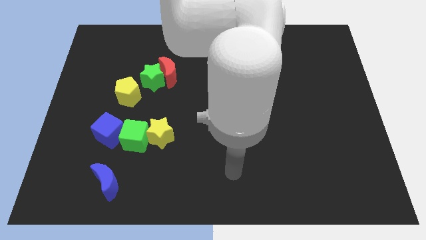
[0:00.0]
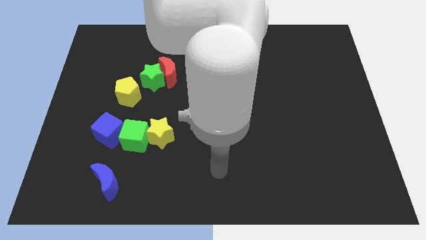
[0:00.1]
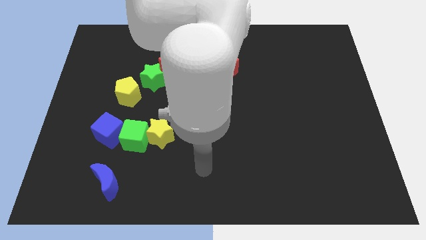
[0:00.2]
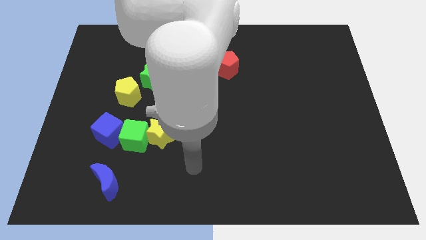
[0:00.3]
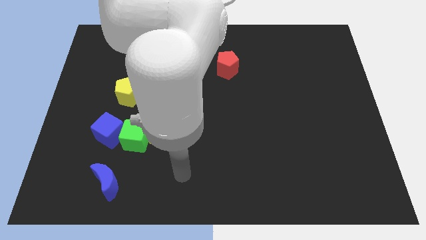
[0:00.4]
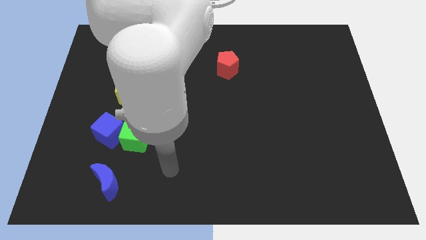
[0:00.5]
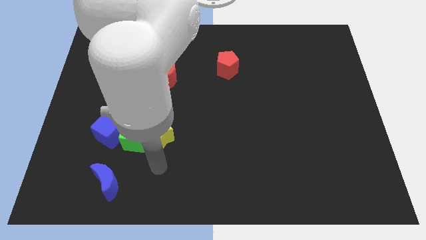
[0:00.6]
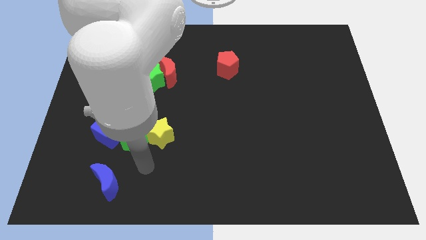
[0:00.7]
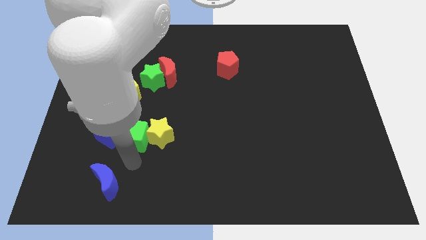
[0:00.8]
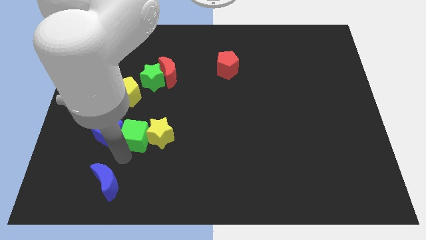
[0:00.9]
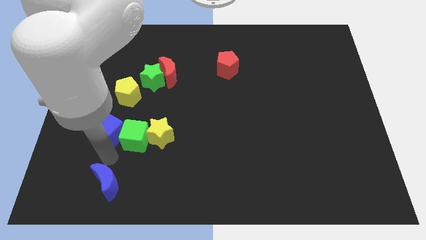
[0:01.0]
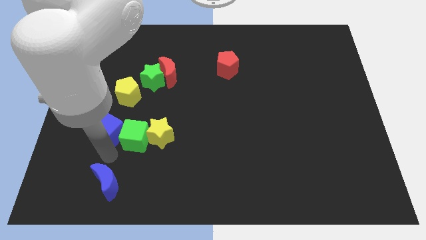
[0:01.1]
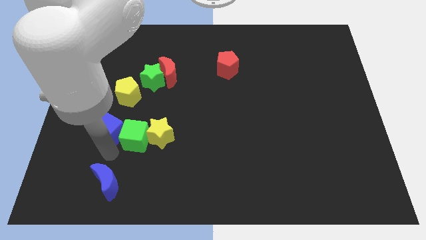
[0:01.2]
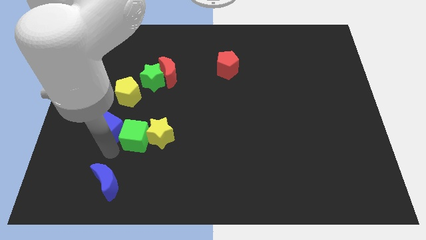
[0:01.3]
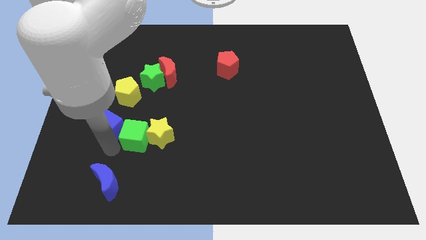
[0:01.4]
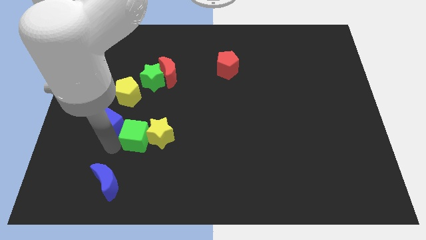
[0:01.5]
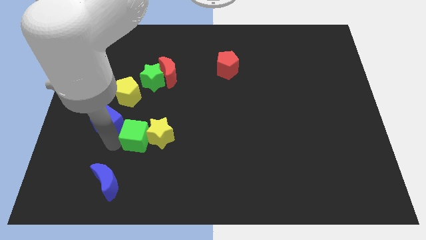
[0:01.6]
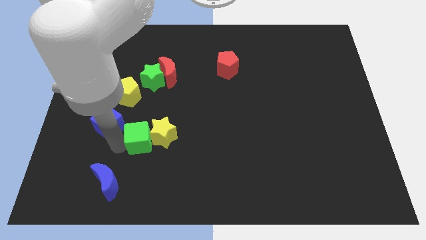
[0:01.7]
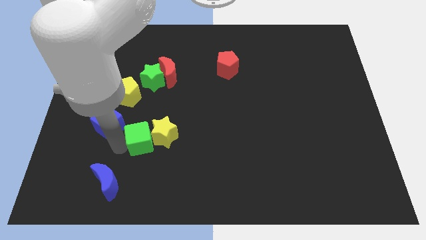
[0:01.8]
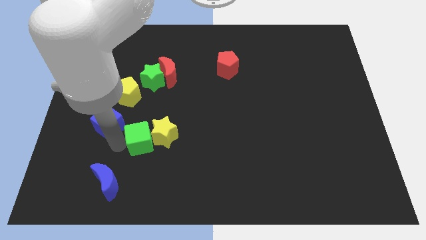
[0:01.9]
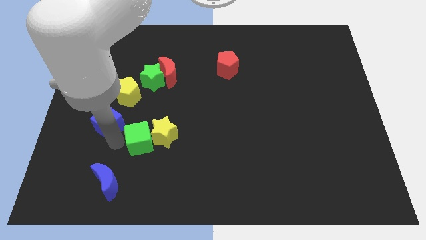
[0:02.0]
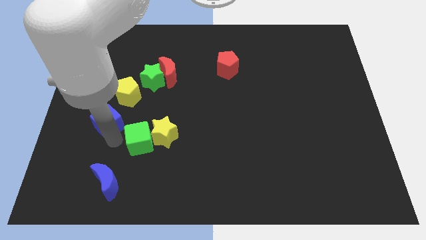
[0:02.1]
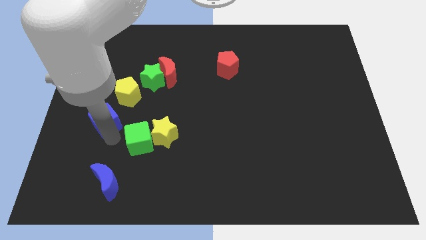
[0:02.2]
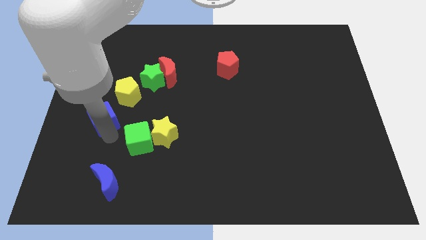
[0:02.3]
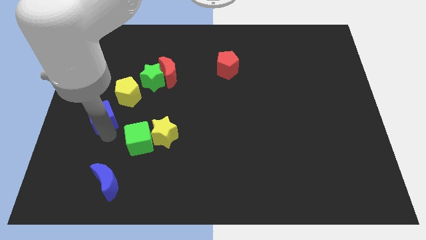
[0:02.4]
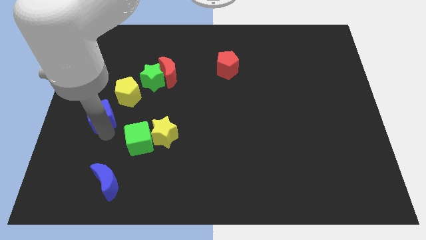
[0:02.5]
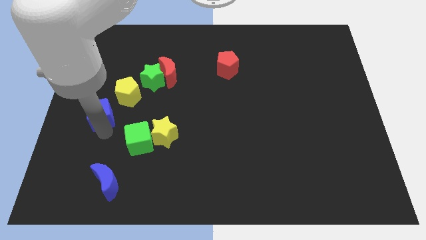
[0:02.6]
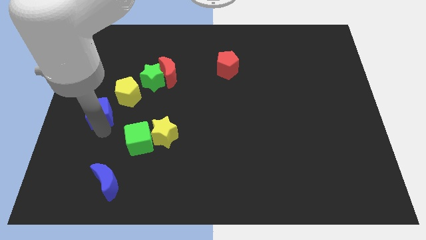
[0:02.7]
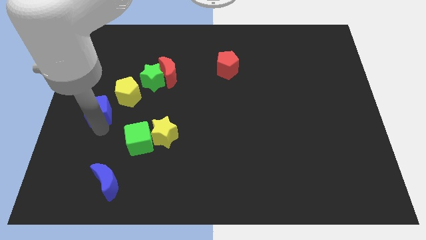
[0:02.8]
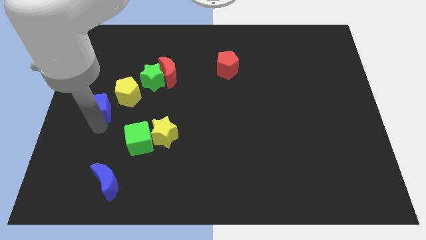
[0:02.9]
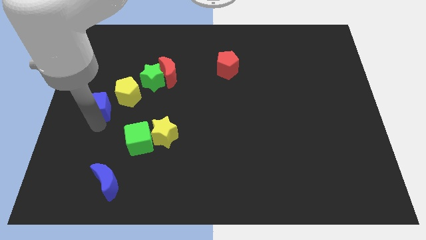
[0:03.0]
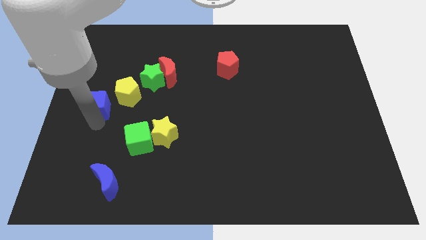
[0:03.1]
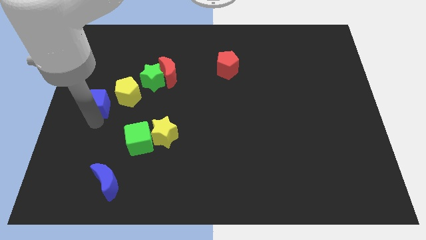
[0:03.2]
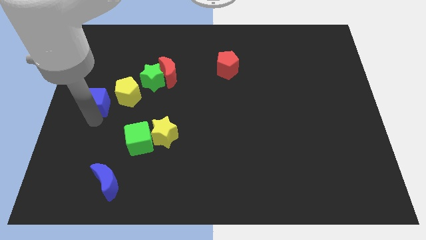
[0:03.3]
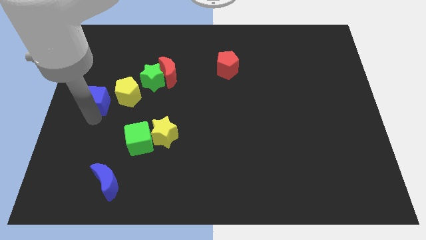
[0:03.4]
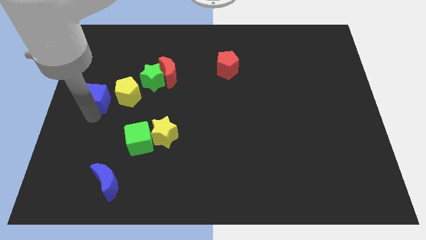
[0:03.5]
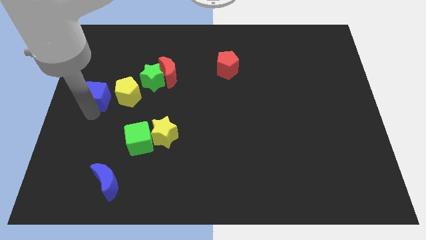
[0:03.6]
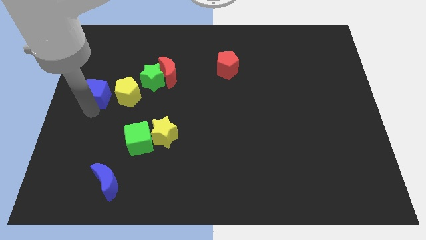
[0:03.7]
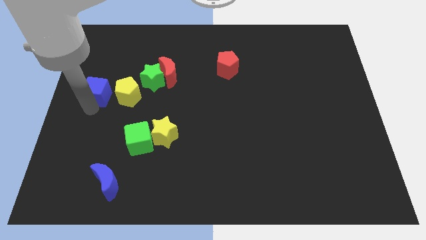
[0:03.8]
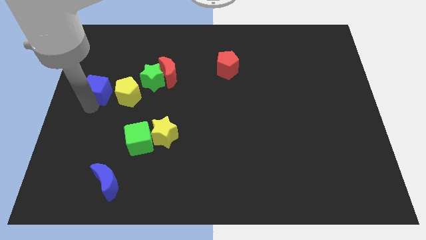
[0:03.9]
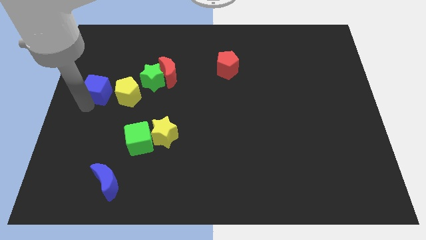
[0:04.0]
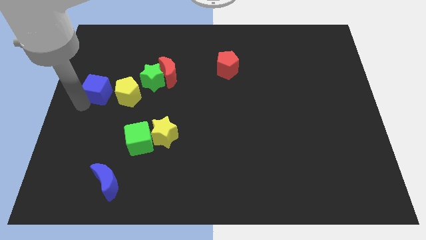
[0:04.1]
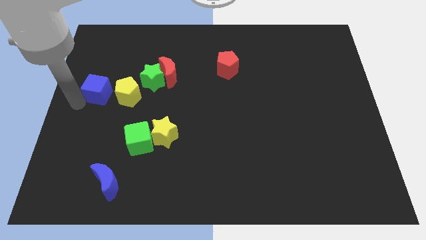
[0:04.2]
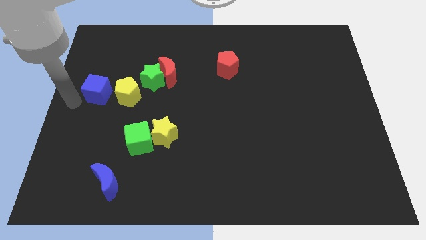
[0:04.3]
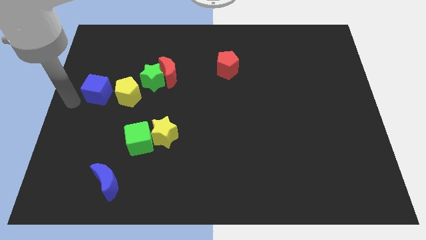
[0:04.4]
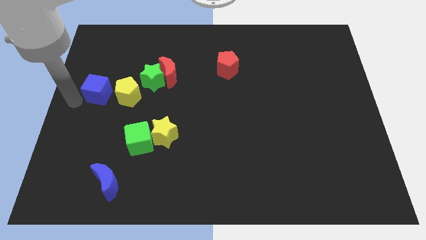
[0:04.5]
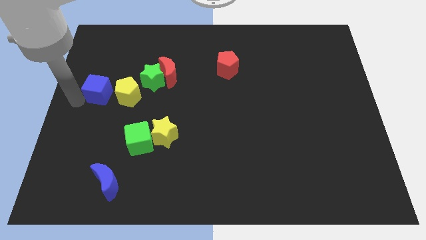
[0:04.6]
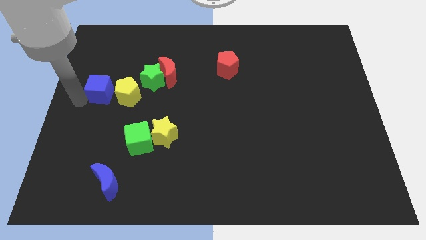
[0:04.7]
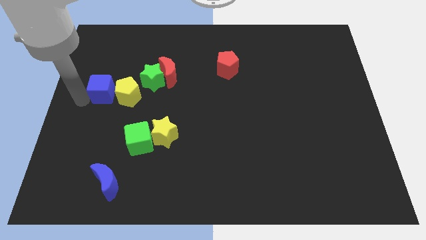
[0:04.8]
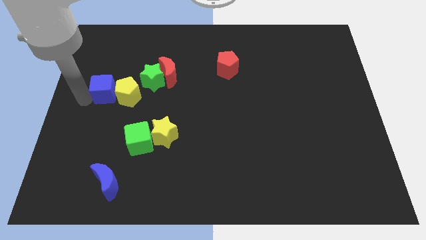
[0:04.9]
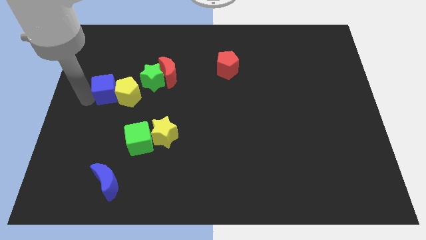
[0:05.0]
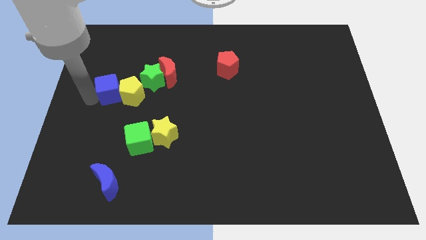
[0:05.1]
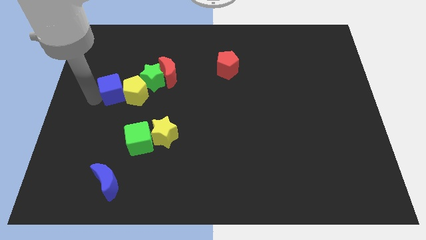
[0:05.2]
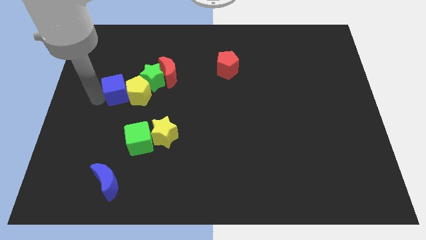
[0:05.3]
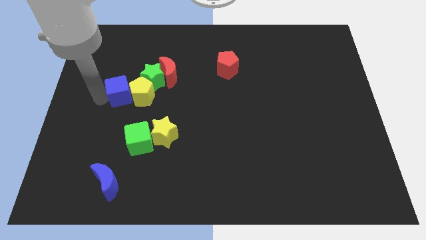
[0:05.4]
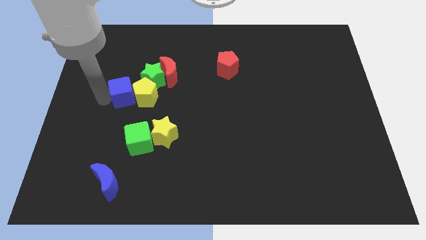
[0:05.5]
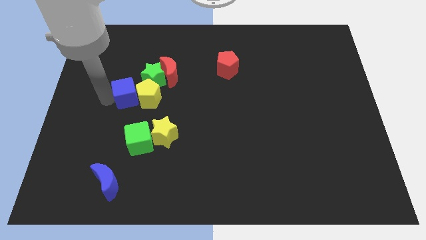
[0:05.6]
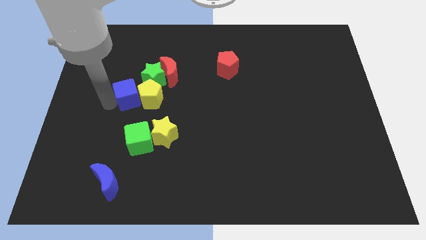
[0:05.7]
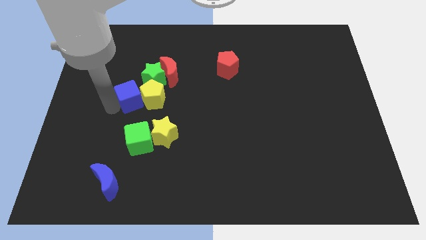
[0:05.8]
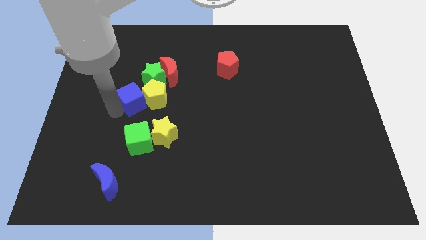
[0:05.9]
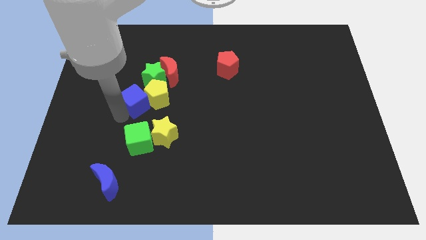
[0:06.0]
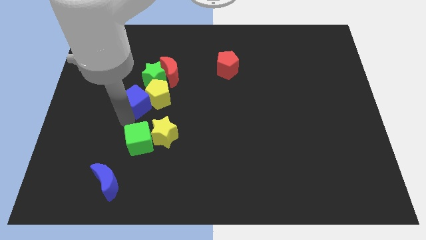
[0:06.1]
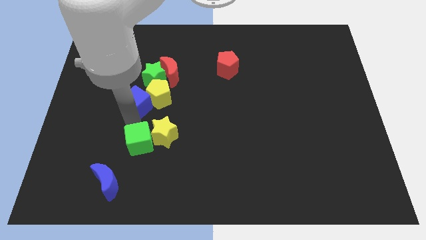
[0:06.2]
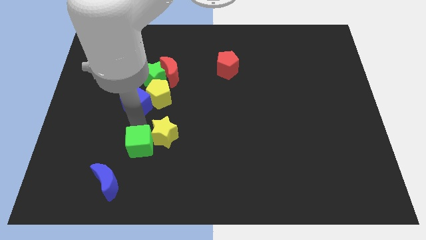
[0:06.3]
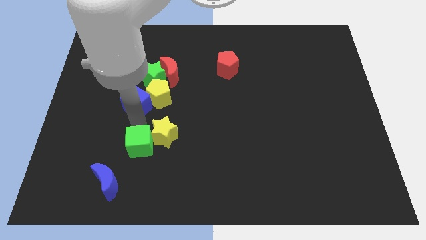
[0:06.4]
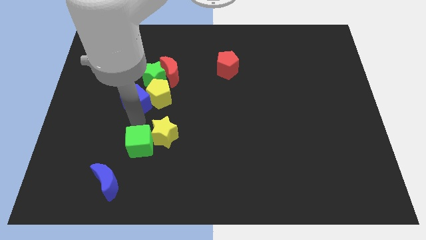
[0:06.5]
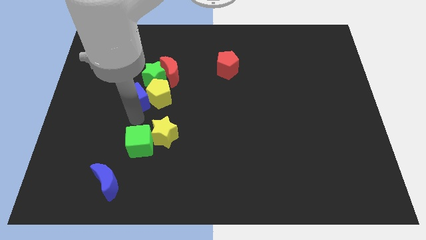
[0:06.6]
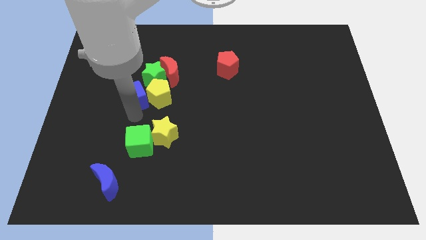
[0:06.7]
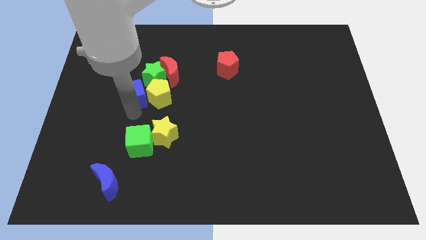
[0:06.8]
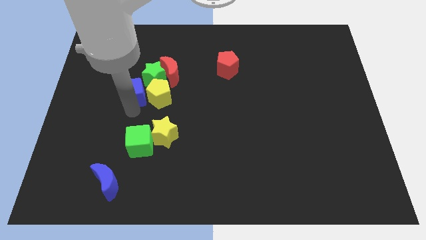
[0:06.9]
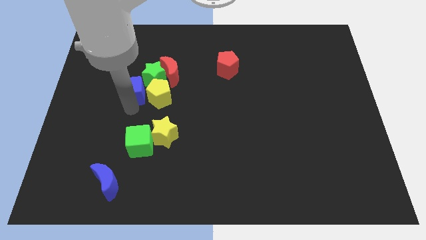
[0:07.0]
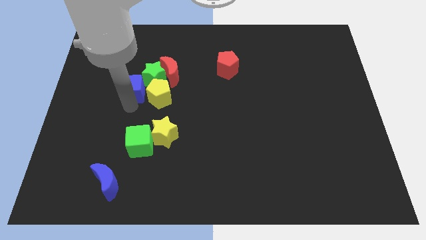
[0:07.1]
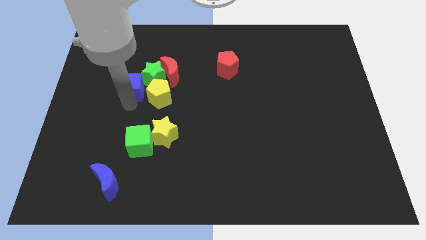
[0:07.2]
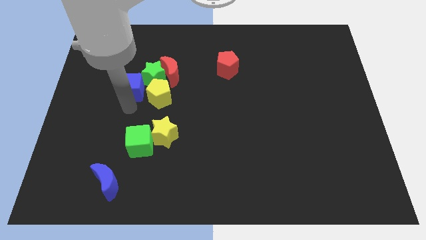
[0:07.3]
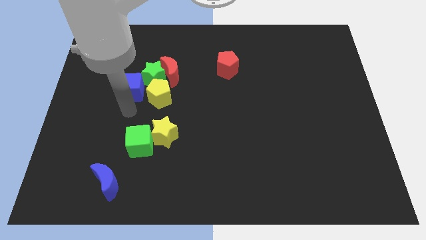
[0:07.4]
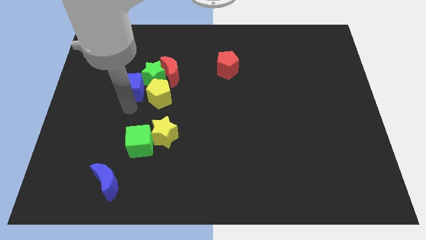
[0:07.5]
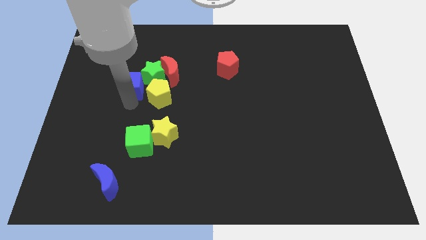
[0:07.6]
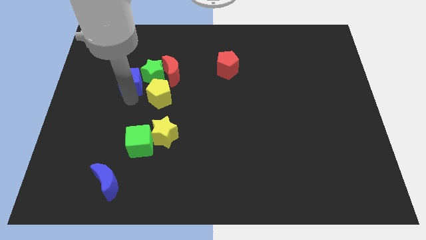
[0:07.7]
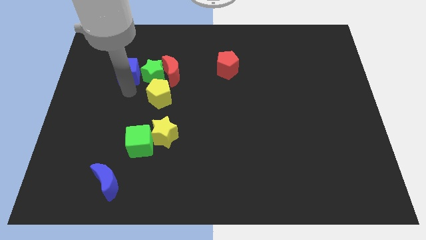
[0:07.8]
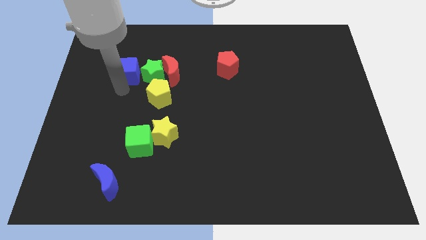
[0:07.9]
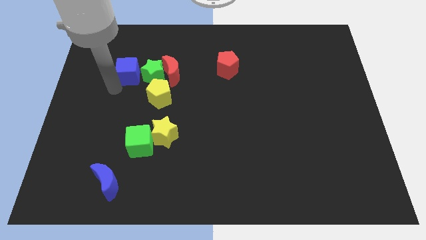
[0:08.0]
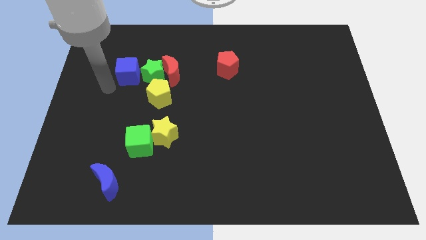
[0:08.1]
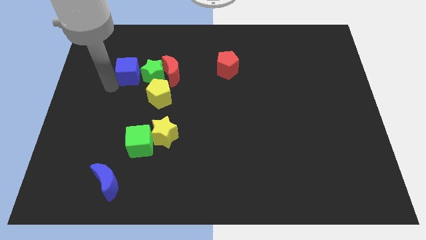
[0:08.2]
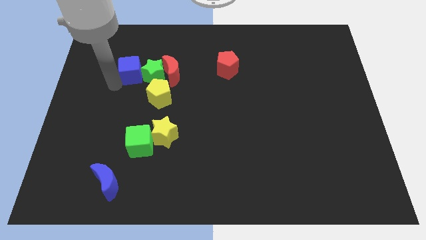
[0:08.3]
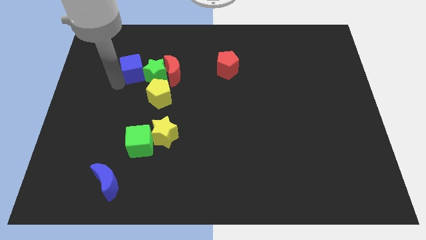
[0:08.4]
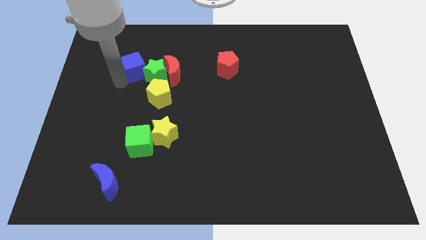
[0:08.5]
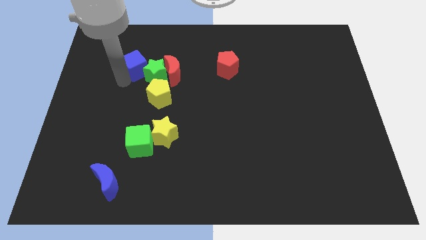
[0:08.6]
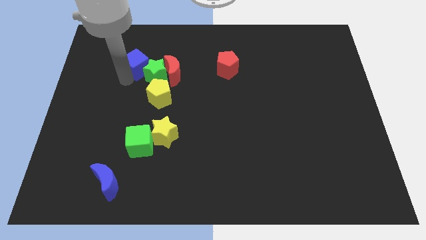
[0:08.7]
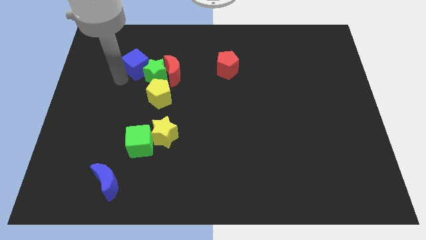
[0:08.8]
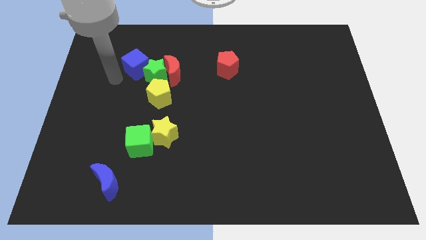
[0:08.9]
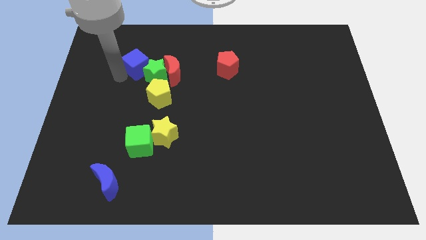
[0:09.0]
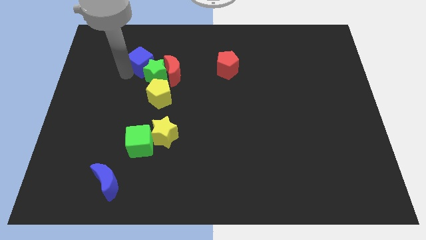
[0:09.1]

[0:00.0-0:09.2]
move the blue cube diagonally up and to the left of the red moon
